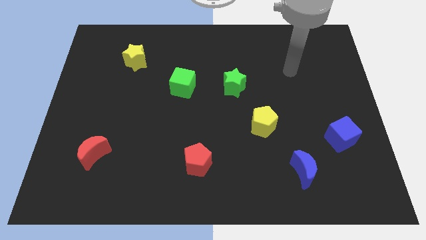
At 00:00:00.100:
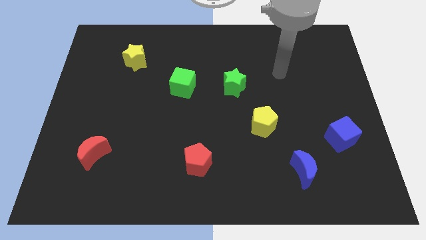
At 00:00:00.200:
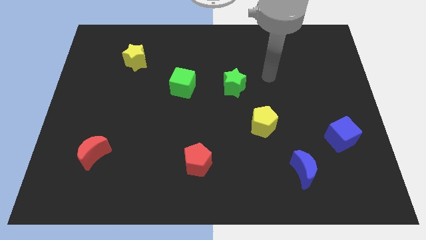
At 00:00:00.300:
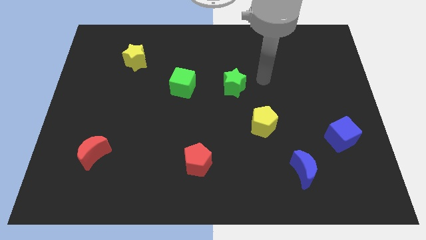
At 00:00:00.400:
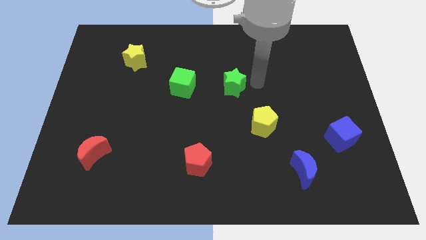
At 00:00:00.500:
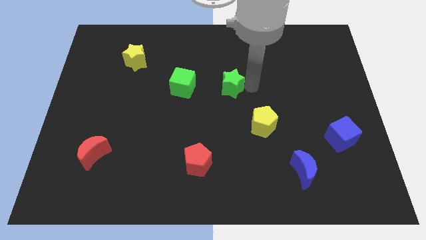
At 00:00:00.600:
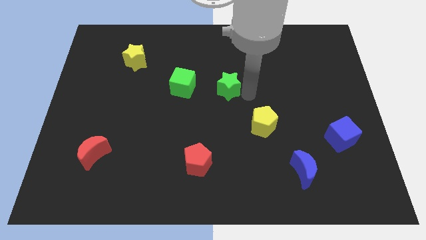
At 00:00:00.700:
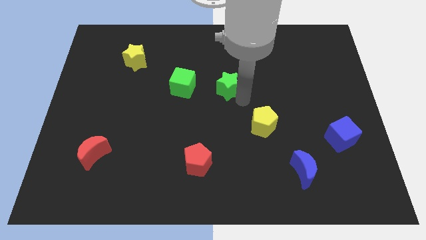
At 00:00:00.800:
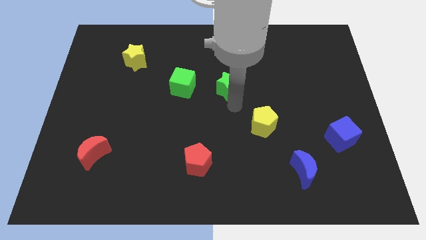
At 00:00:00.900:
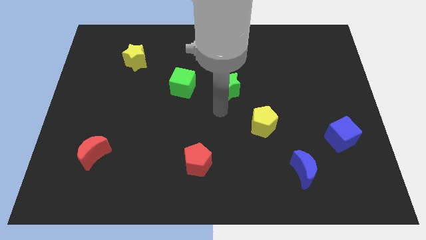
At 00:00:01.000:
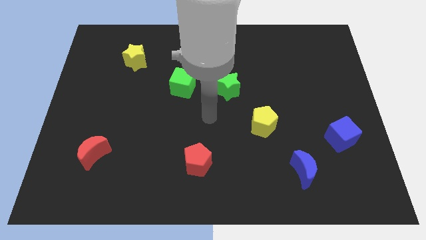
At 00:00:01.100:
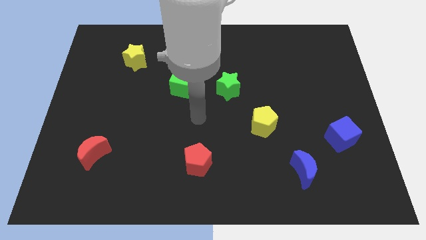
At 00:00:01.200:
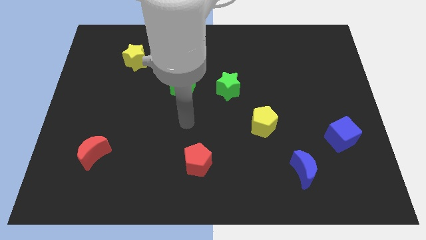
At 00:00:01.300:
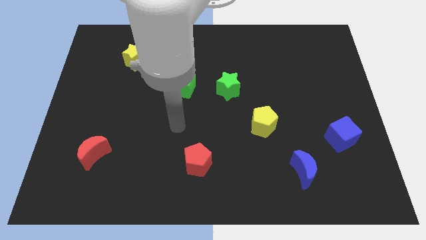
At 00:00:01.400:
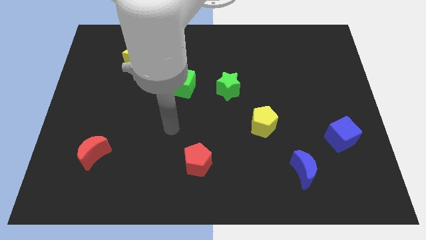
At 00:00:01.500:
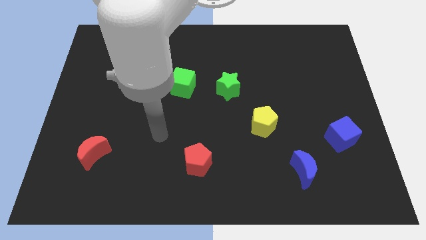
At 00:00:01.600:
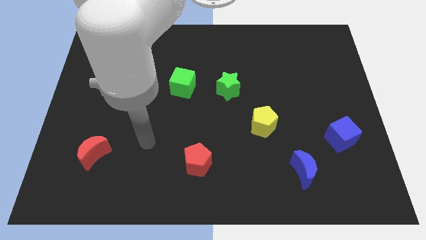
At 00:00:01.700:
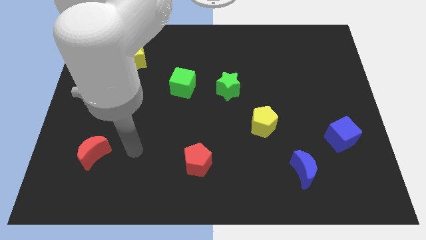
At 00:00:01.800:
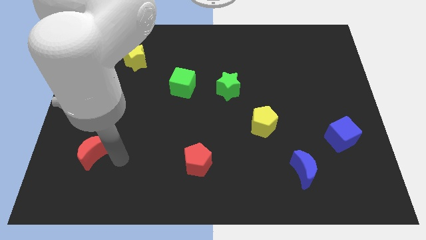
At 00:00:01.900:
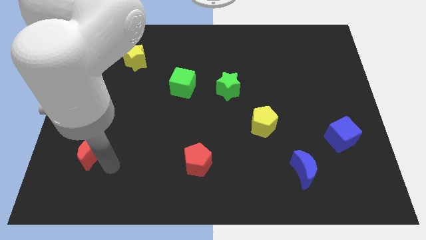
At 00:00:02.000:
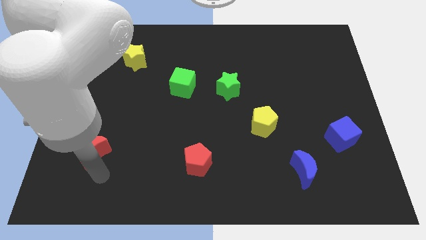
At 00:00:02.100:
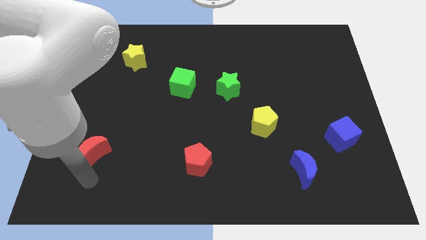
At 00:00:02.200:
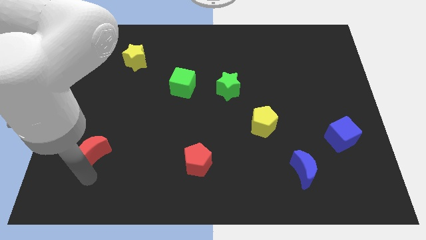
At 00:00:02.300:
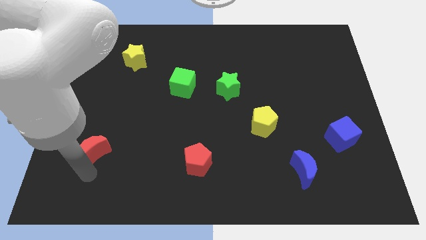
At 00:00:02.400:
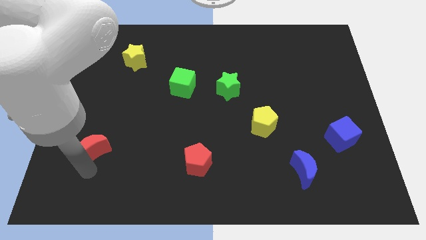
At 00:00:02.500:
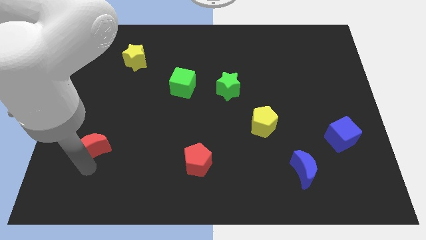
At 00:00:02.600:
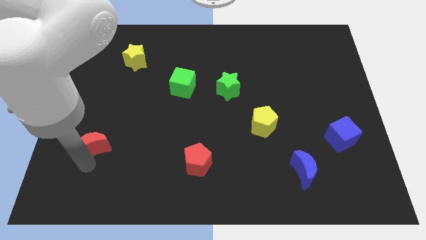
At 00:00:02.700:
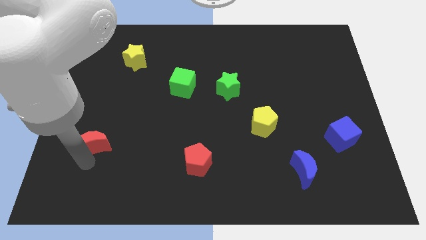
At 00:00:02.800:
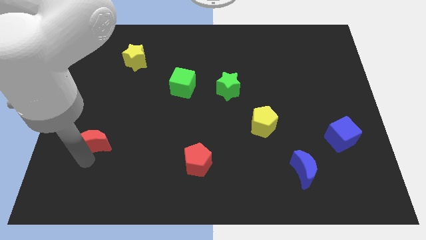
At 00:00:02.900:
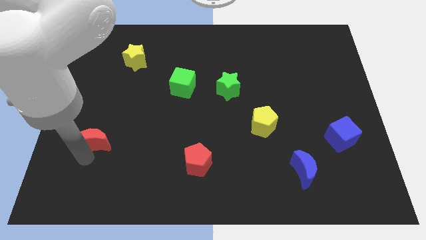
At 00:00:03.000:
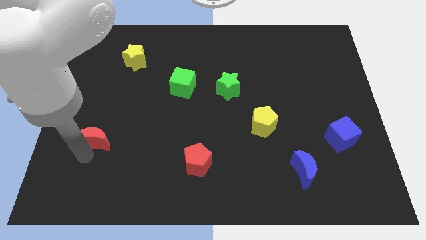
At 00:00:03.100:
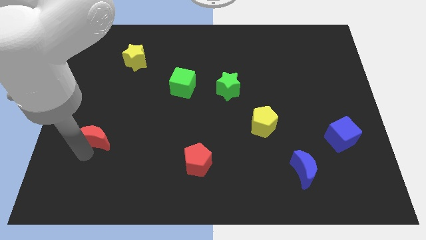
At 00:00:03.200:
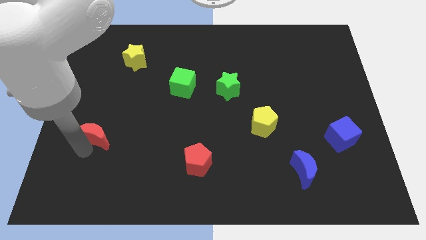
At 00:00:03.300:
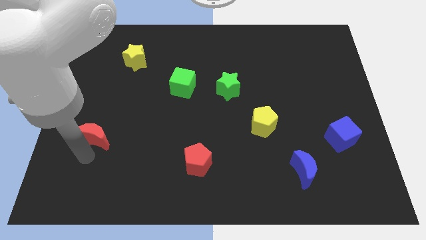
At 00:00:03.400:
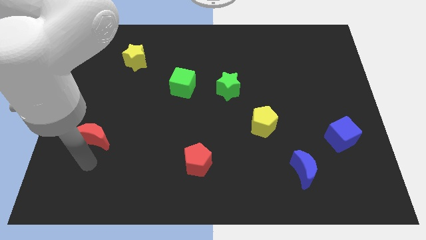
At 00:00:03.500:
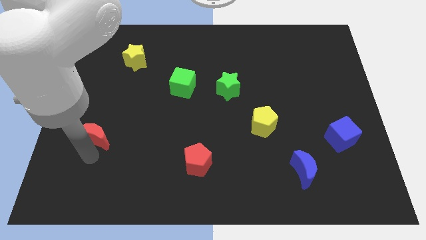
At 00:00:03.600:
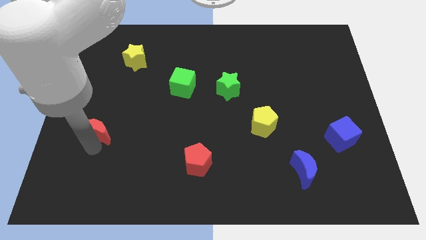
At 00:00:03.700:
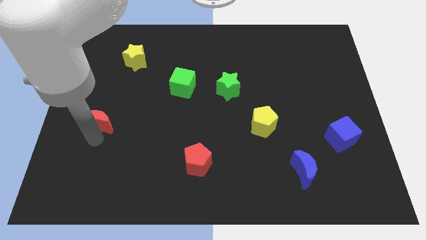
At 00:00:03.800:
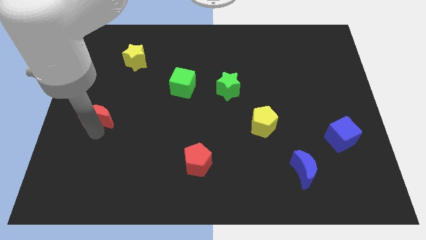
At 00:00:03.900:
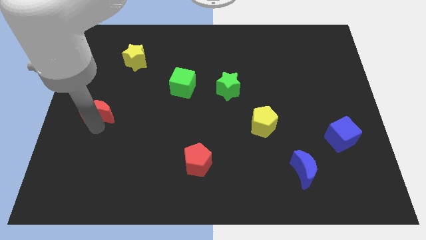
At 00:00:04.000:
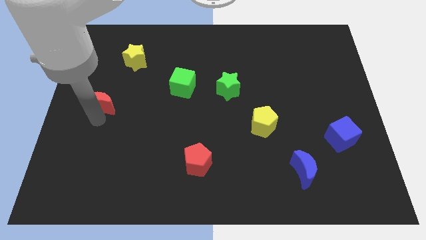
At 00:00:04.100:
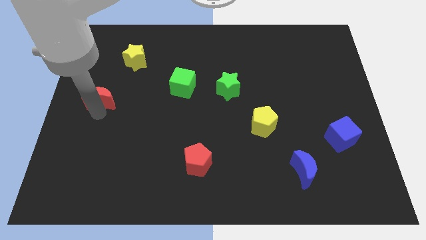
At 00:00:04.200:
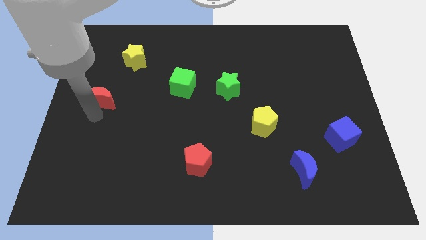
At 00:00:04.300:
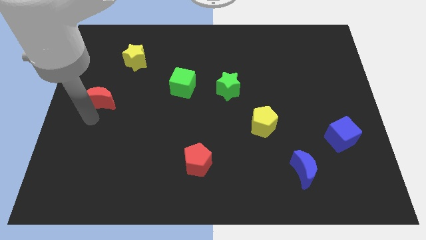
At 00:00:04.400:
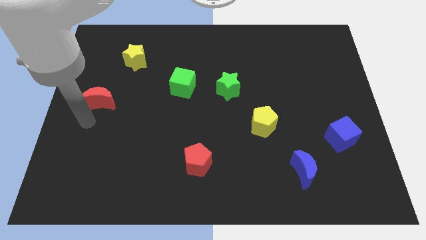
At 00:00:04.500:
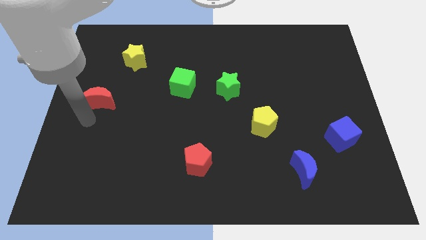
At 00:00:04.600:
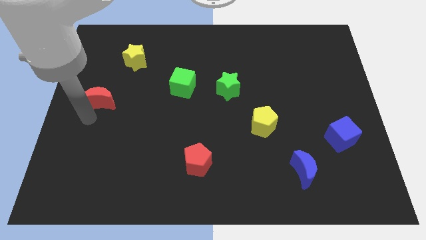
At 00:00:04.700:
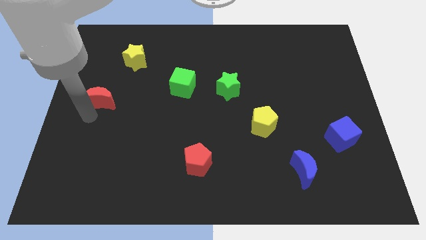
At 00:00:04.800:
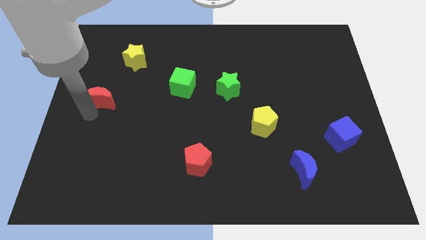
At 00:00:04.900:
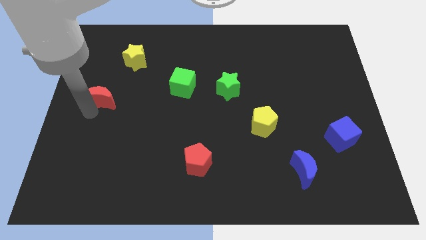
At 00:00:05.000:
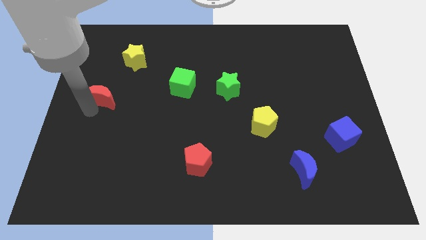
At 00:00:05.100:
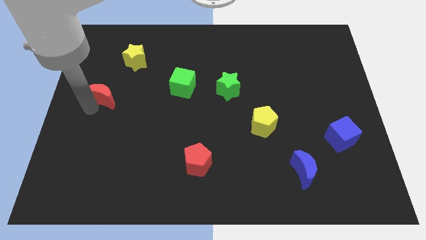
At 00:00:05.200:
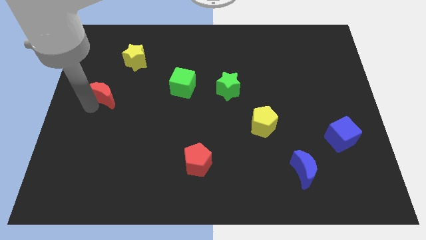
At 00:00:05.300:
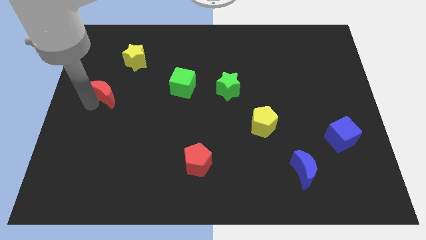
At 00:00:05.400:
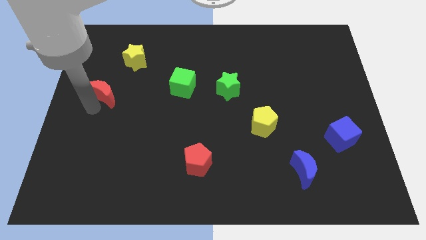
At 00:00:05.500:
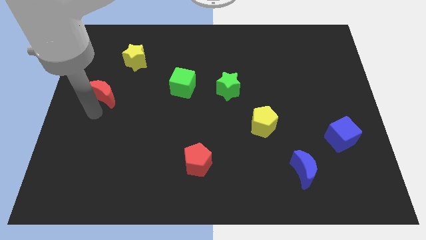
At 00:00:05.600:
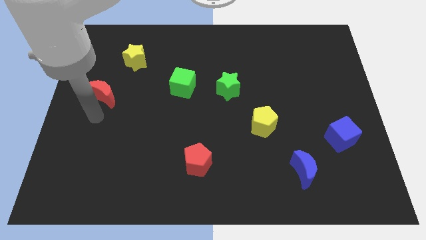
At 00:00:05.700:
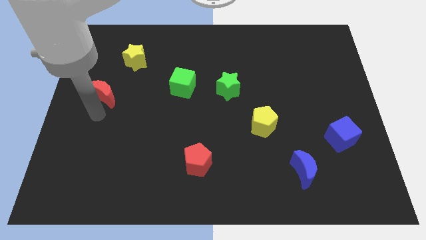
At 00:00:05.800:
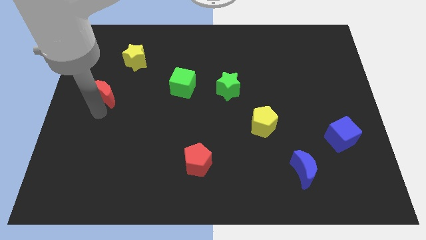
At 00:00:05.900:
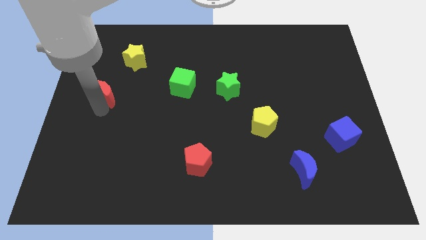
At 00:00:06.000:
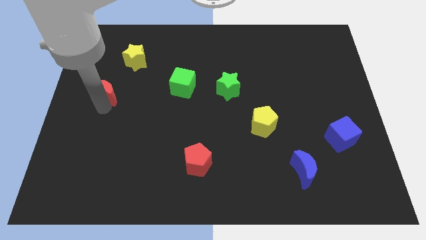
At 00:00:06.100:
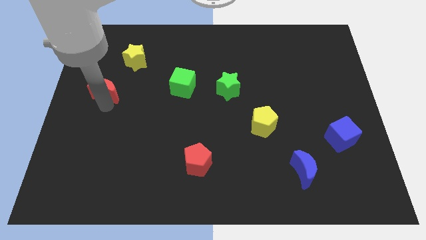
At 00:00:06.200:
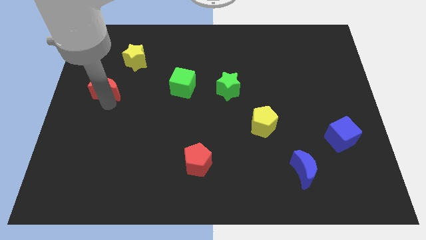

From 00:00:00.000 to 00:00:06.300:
move the red moon diagonally down and to the left of the yellow star

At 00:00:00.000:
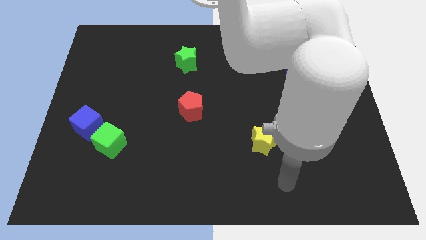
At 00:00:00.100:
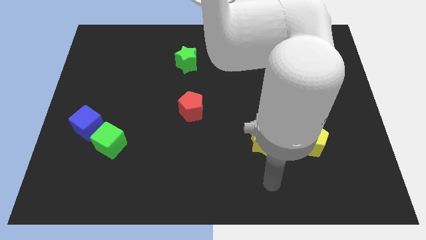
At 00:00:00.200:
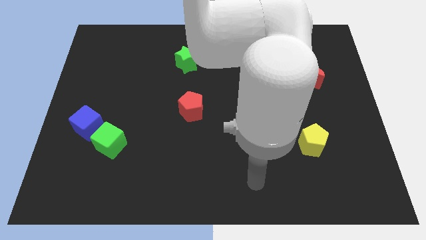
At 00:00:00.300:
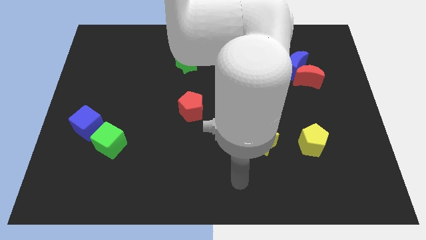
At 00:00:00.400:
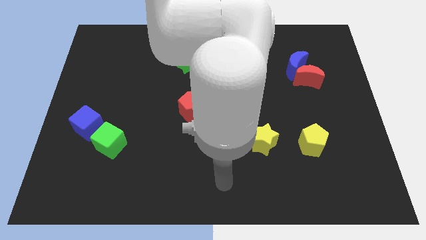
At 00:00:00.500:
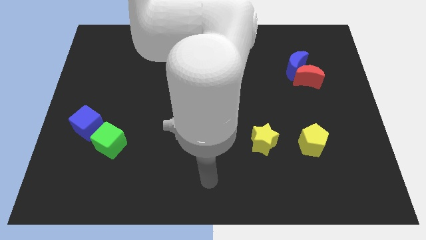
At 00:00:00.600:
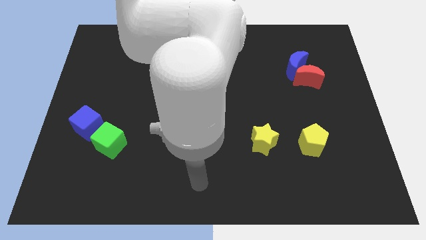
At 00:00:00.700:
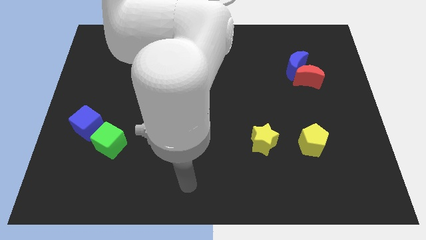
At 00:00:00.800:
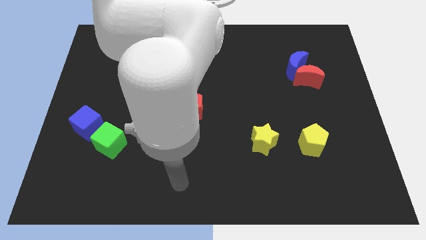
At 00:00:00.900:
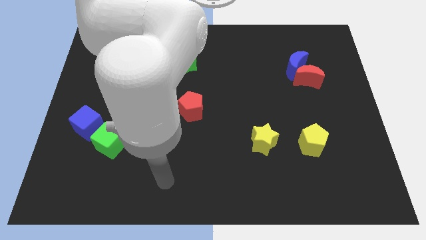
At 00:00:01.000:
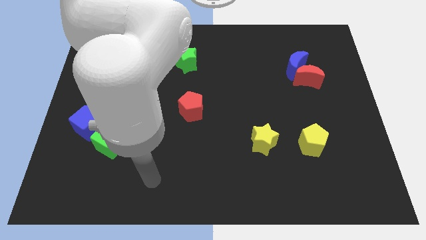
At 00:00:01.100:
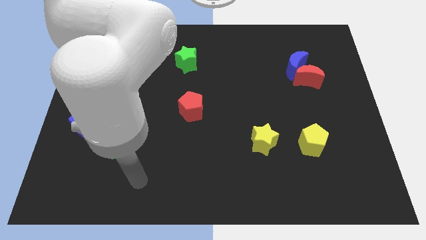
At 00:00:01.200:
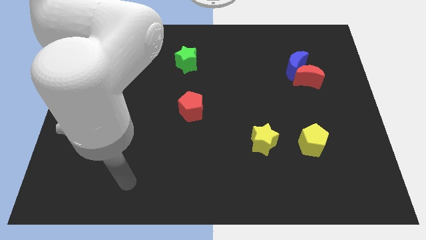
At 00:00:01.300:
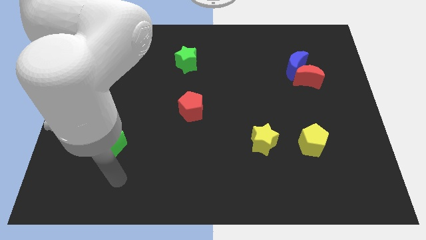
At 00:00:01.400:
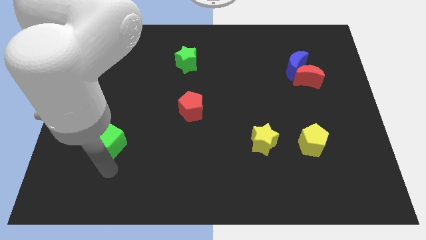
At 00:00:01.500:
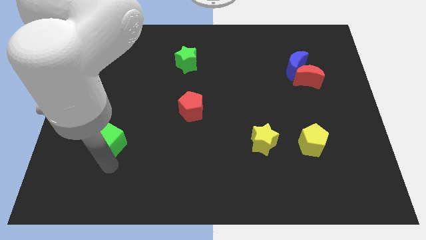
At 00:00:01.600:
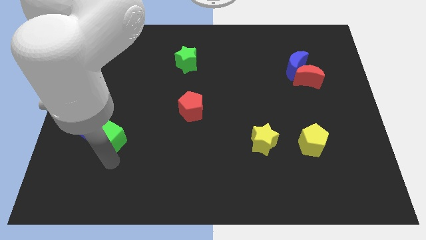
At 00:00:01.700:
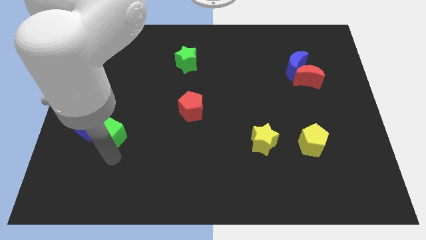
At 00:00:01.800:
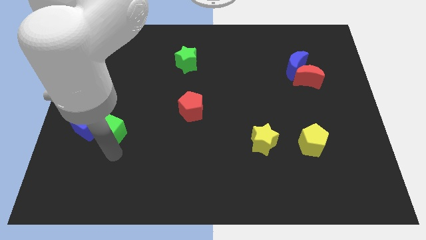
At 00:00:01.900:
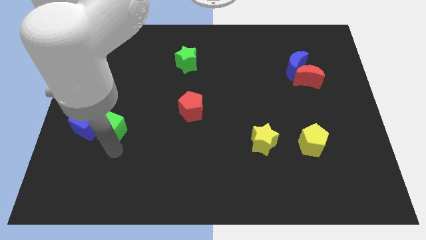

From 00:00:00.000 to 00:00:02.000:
put the green cube to the top right of the blue cube
